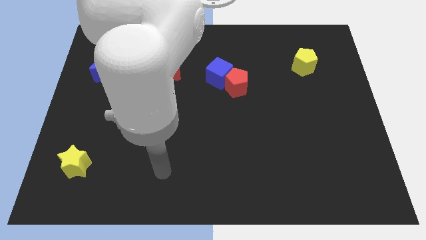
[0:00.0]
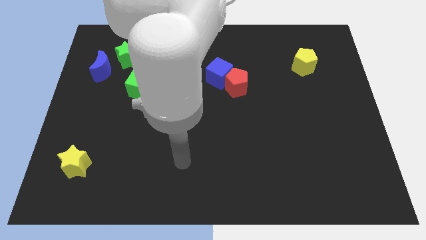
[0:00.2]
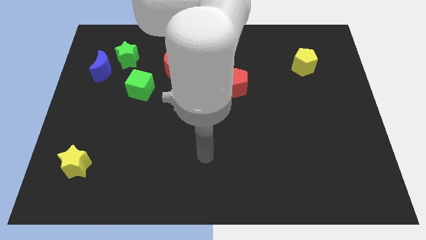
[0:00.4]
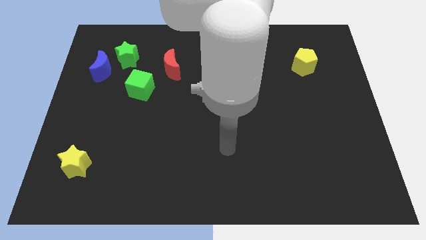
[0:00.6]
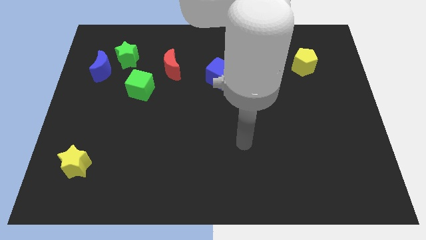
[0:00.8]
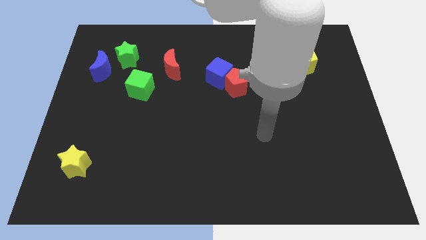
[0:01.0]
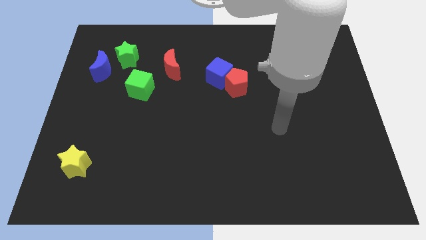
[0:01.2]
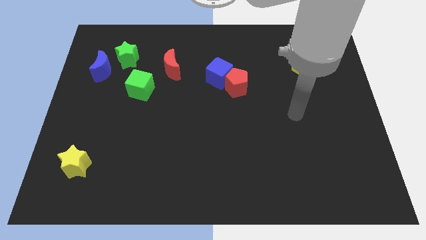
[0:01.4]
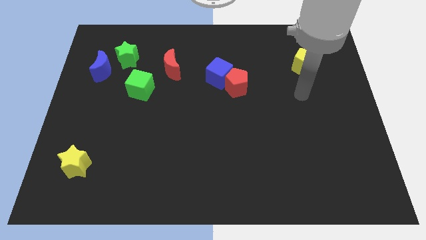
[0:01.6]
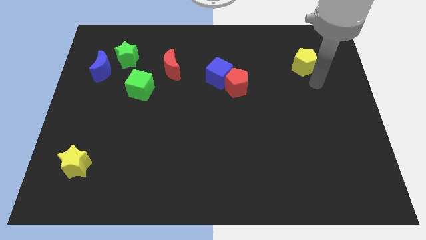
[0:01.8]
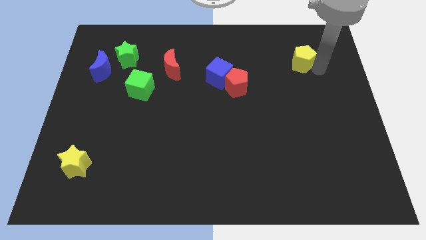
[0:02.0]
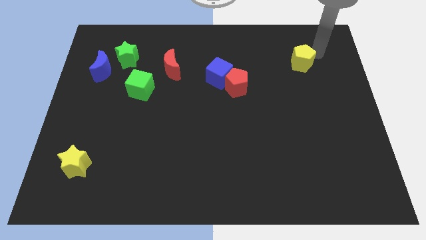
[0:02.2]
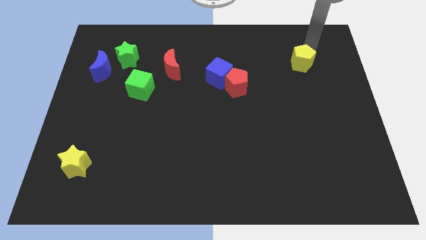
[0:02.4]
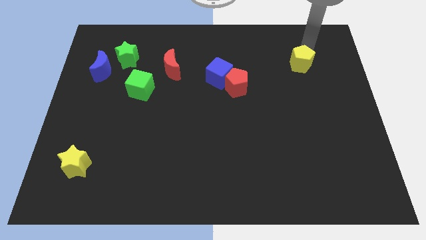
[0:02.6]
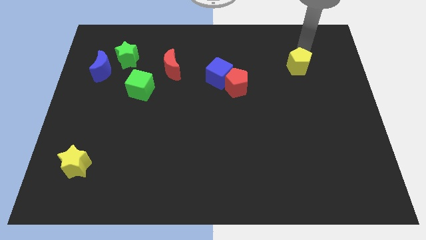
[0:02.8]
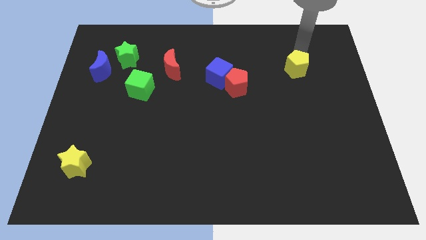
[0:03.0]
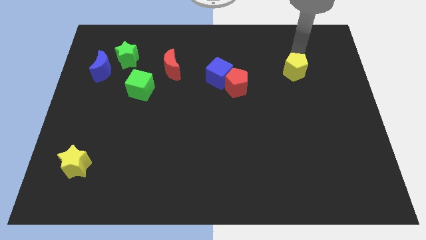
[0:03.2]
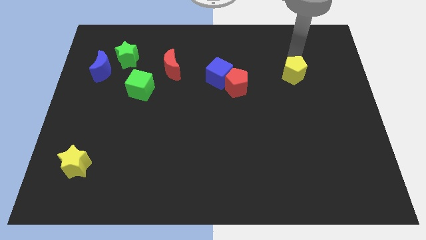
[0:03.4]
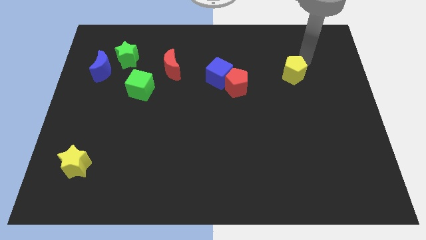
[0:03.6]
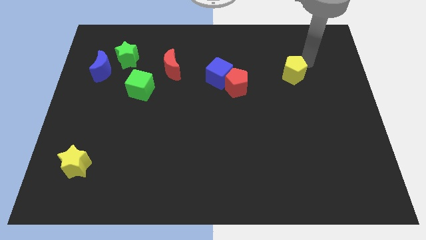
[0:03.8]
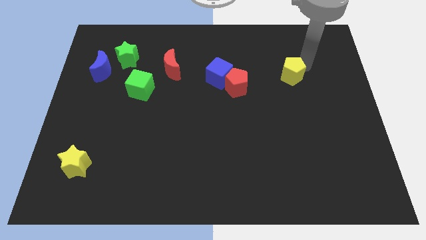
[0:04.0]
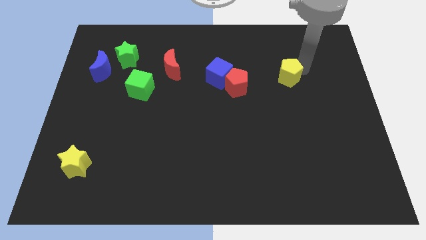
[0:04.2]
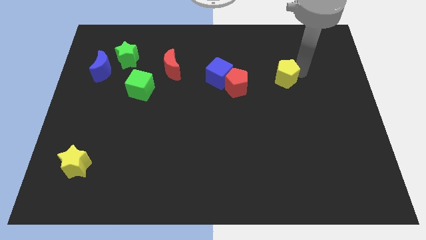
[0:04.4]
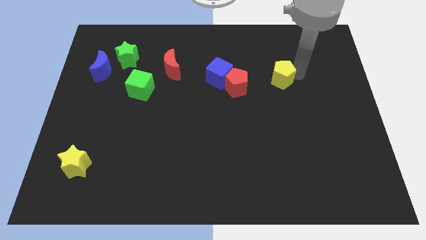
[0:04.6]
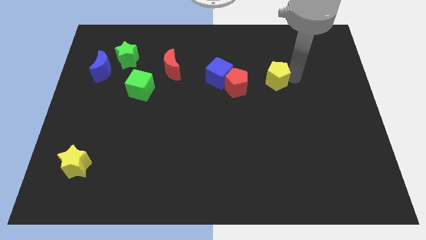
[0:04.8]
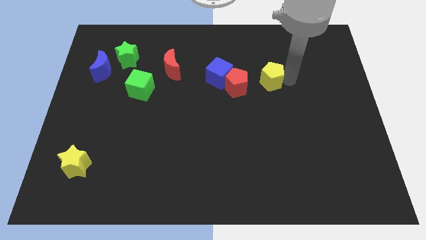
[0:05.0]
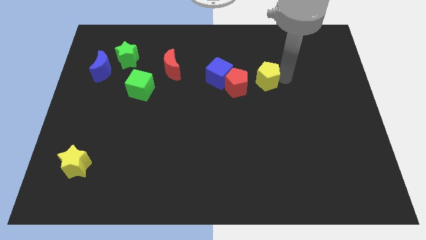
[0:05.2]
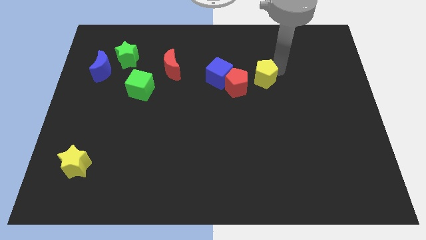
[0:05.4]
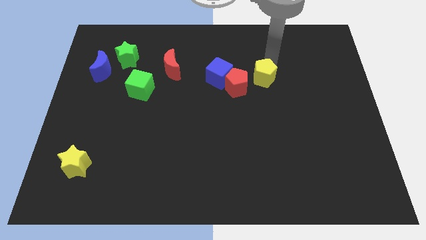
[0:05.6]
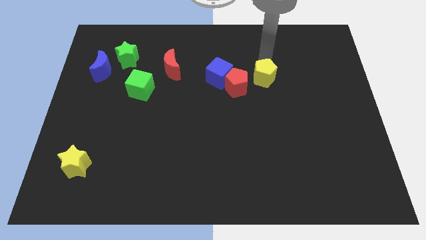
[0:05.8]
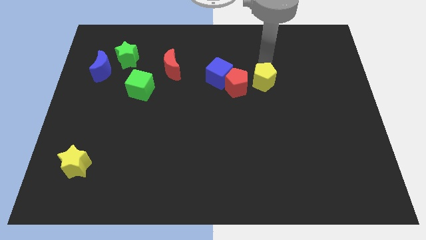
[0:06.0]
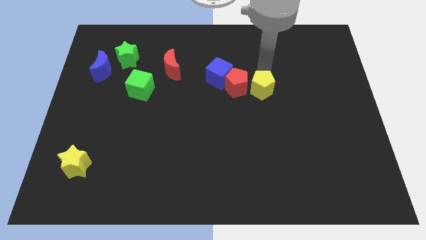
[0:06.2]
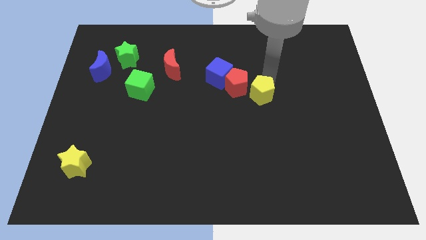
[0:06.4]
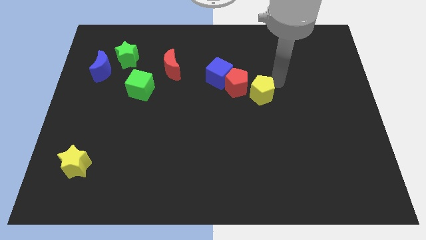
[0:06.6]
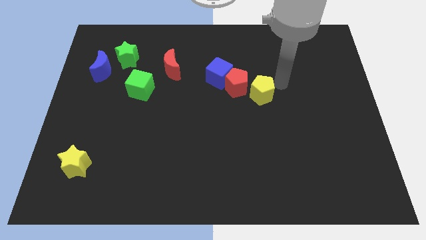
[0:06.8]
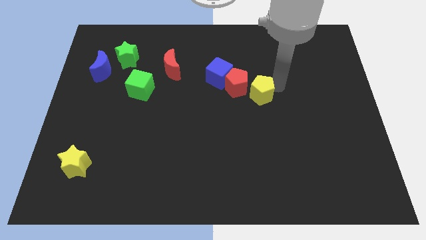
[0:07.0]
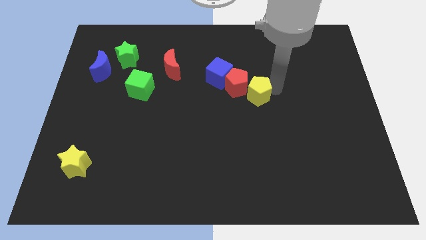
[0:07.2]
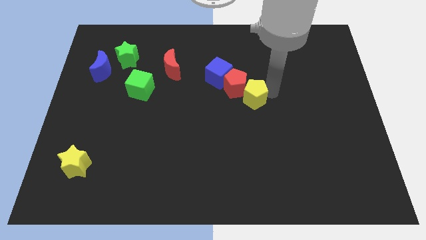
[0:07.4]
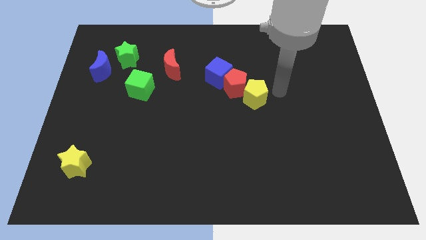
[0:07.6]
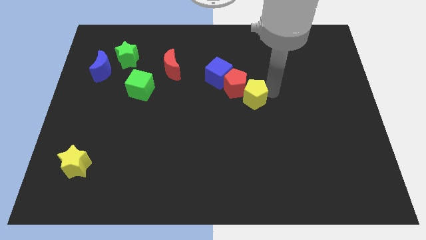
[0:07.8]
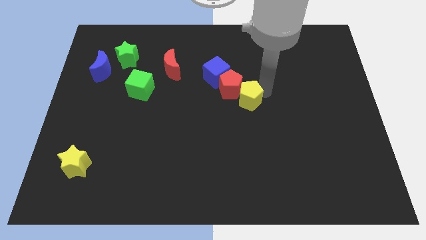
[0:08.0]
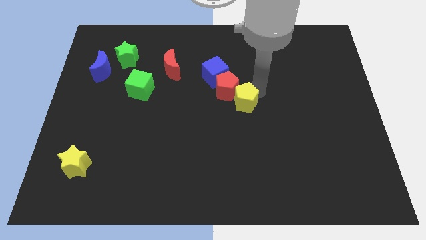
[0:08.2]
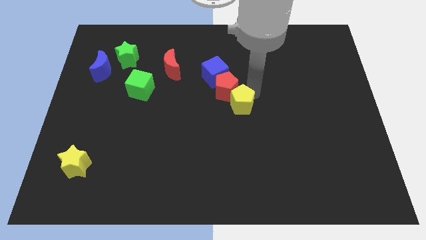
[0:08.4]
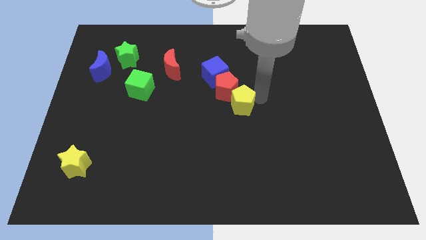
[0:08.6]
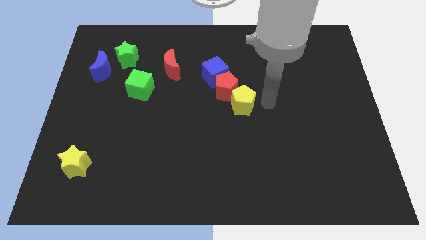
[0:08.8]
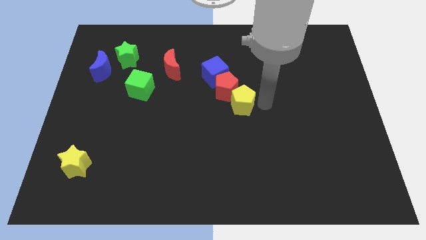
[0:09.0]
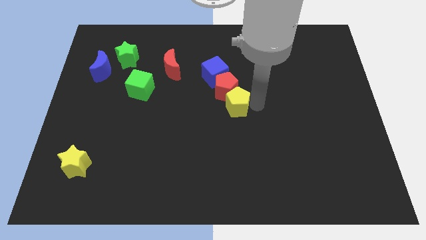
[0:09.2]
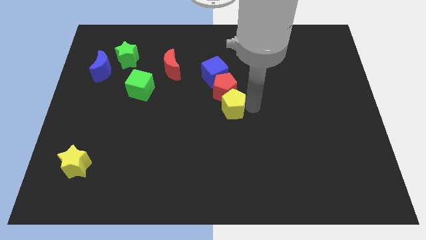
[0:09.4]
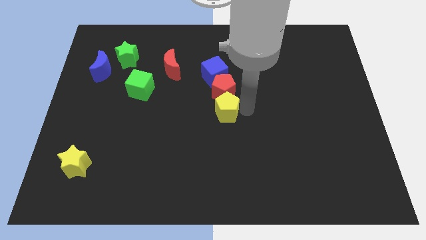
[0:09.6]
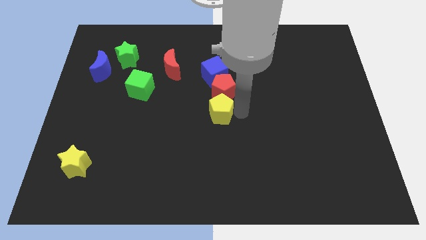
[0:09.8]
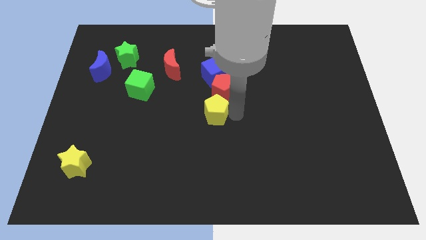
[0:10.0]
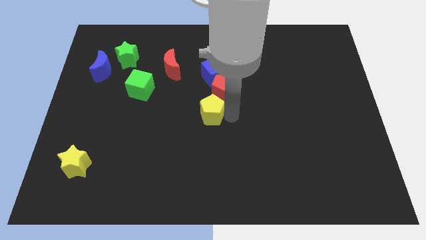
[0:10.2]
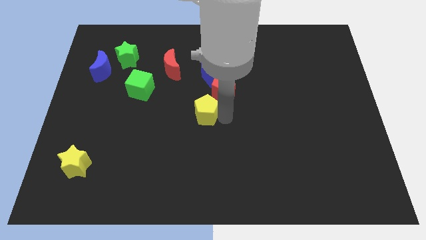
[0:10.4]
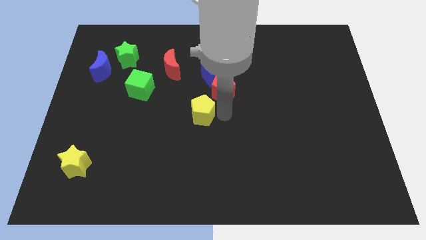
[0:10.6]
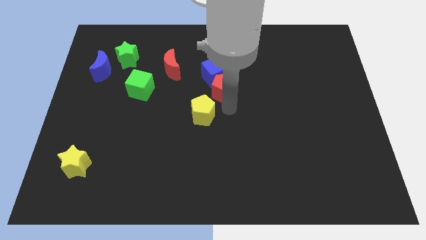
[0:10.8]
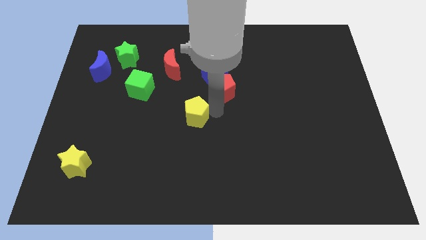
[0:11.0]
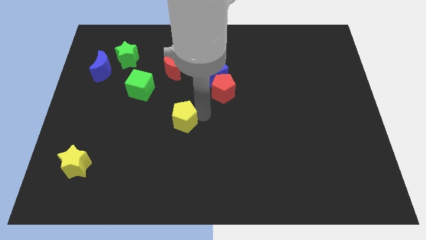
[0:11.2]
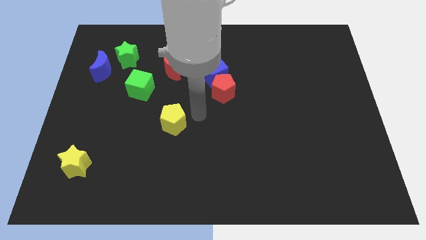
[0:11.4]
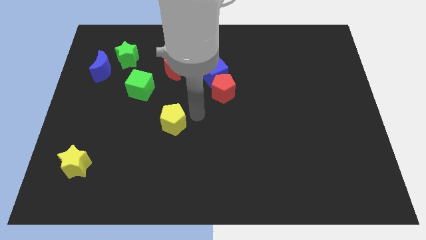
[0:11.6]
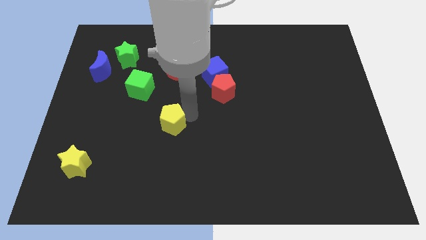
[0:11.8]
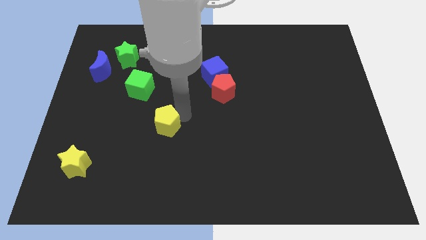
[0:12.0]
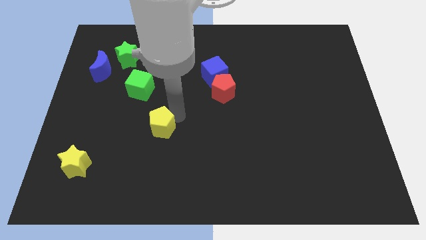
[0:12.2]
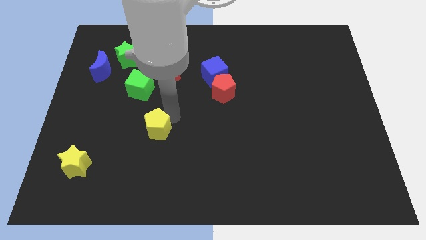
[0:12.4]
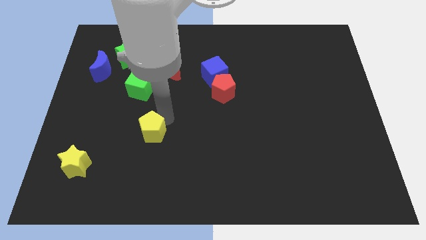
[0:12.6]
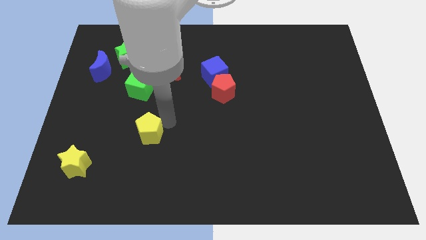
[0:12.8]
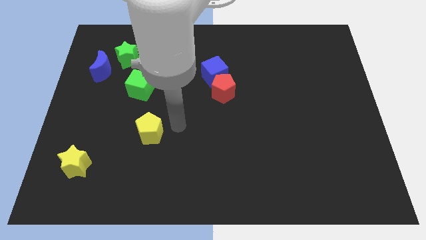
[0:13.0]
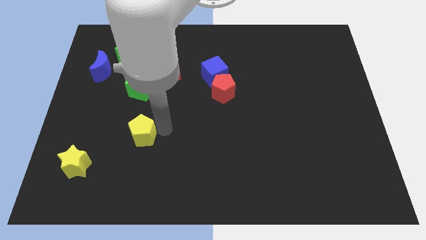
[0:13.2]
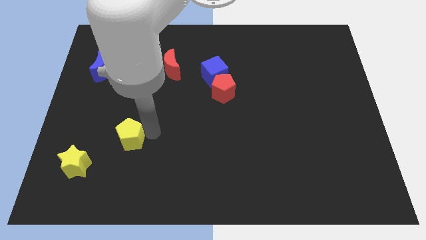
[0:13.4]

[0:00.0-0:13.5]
put the yellow pentagon to the top right of the yellow star

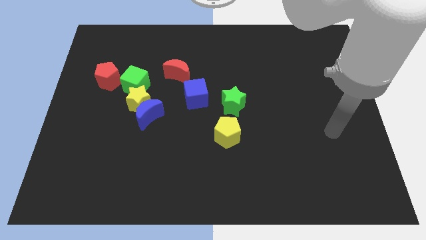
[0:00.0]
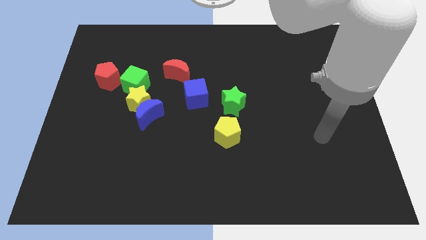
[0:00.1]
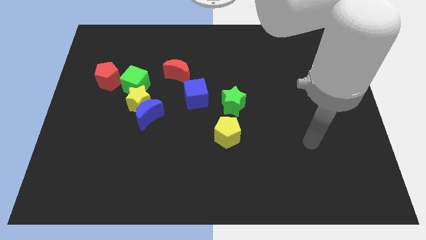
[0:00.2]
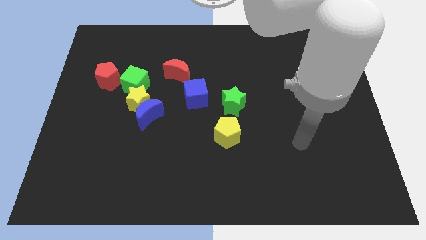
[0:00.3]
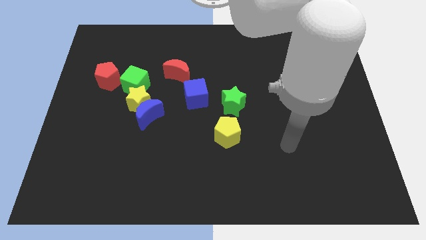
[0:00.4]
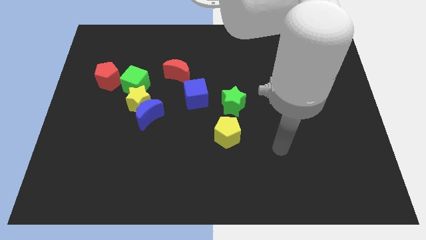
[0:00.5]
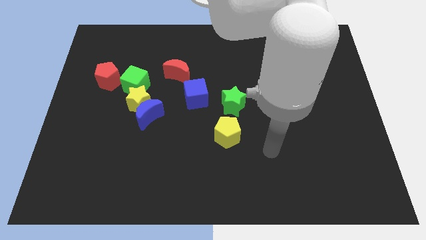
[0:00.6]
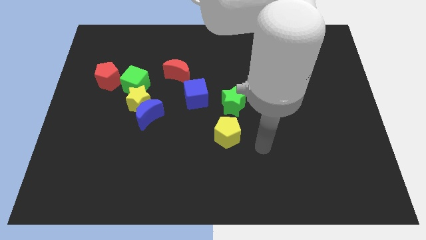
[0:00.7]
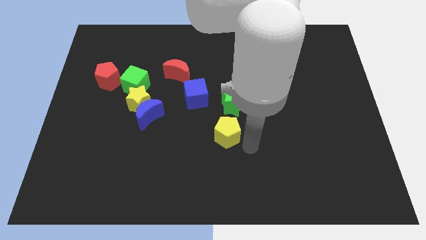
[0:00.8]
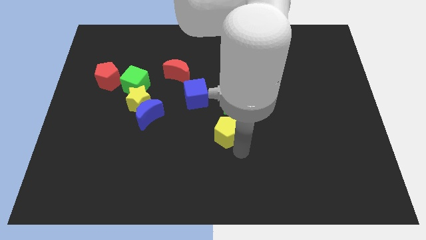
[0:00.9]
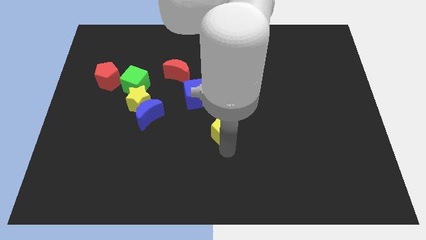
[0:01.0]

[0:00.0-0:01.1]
move the blue cube to the top left side of the yellow pentagon
